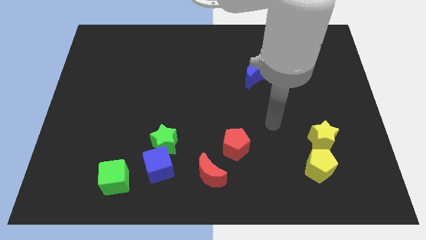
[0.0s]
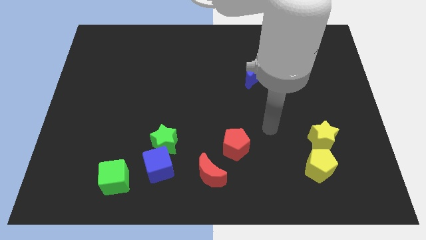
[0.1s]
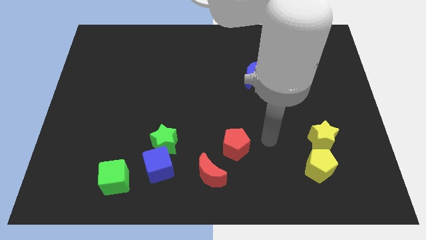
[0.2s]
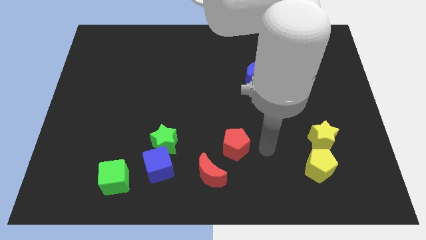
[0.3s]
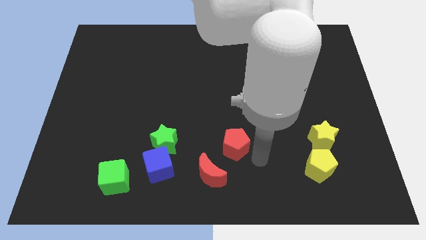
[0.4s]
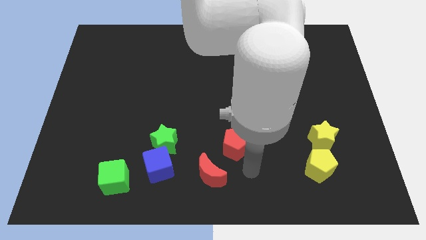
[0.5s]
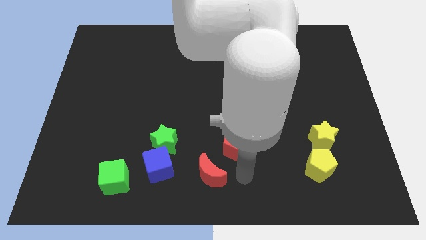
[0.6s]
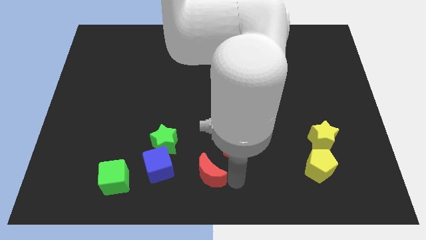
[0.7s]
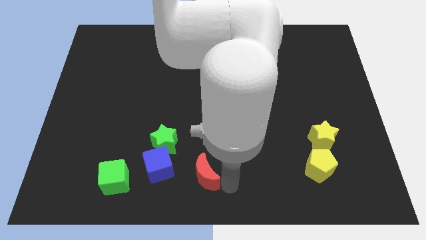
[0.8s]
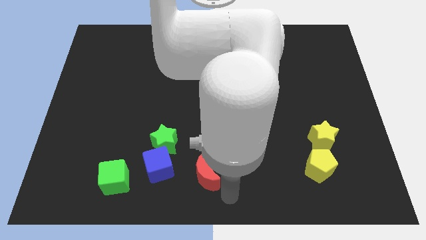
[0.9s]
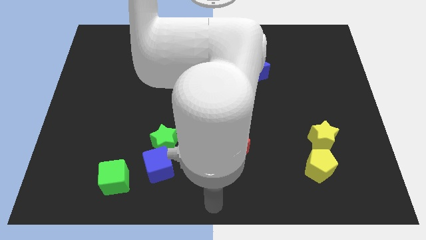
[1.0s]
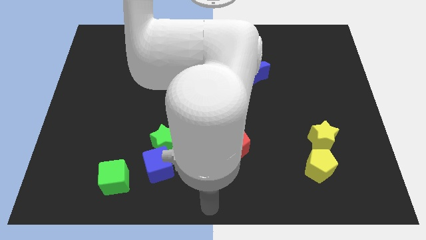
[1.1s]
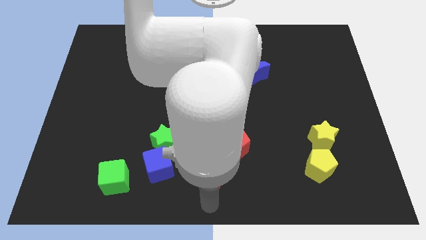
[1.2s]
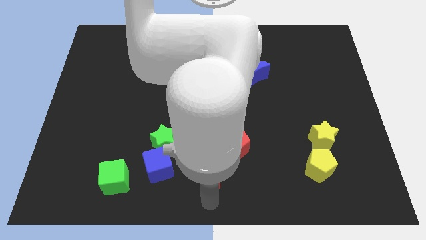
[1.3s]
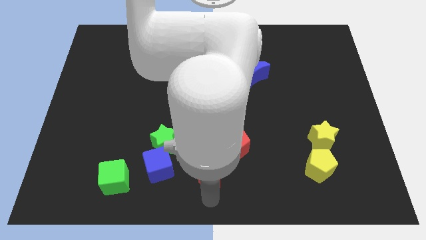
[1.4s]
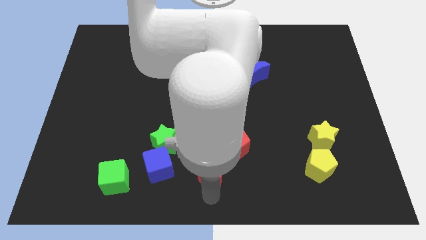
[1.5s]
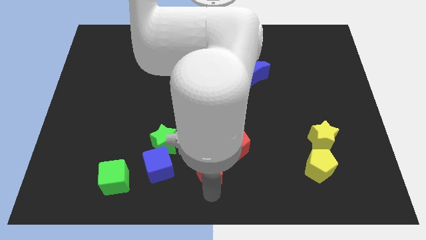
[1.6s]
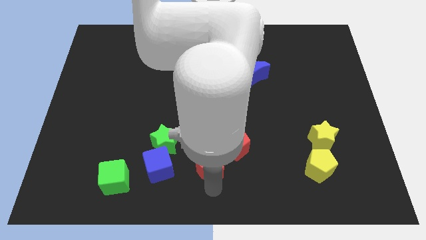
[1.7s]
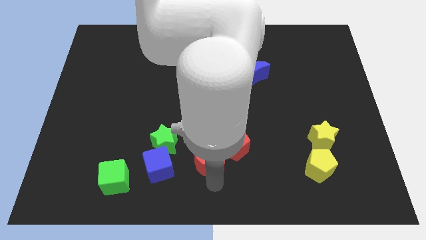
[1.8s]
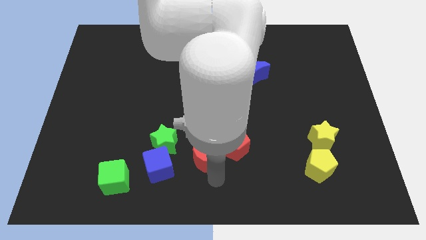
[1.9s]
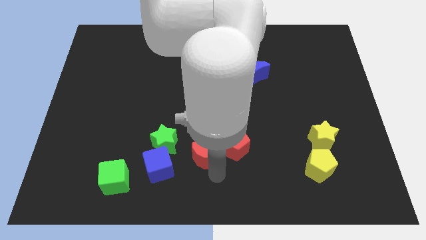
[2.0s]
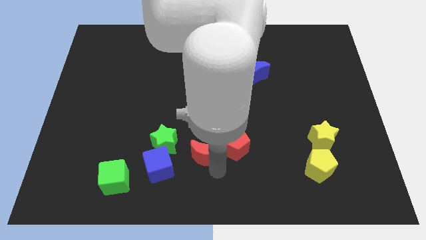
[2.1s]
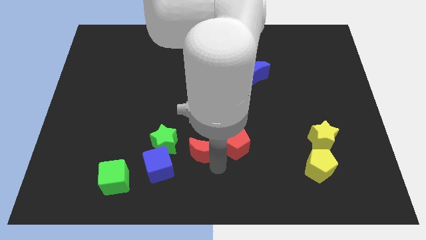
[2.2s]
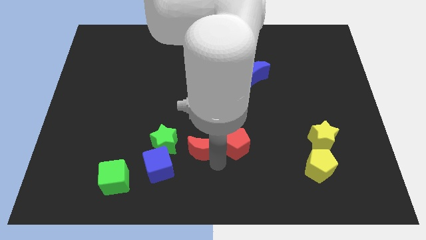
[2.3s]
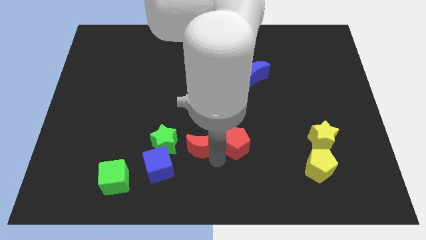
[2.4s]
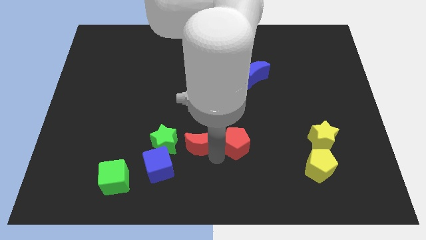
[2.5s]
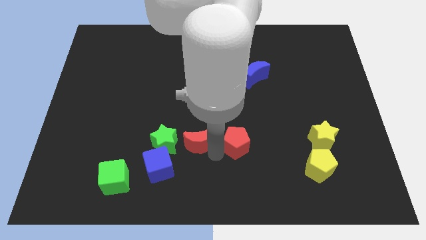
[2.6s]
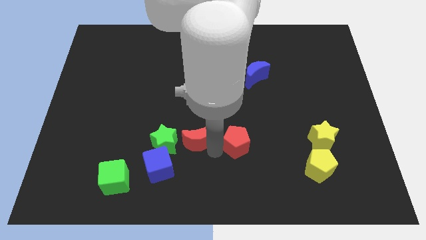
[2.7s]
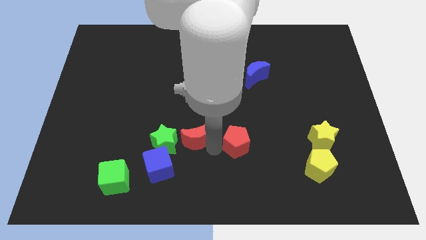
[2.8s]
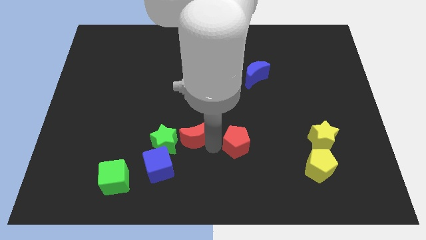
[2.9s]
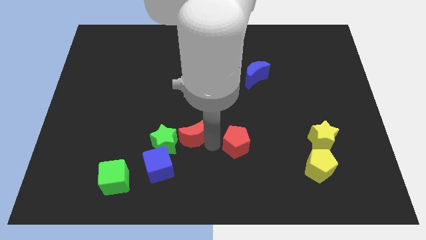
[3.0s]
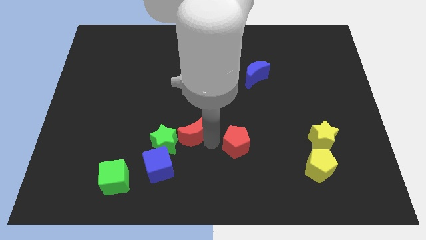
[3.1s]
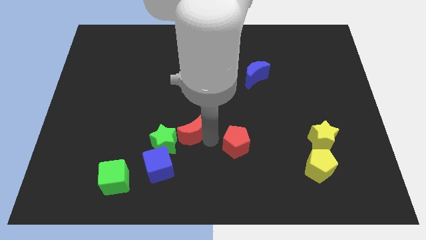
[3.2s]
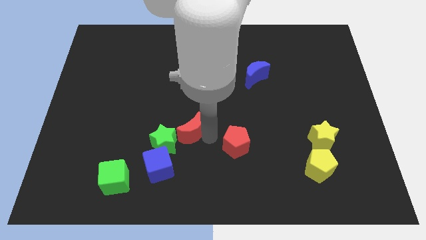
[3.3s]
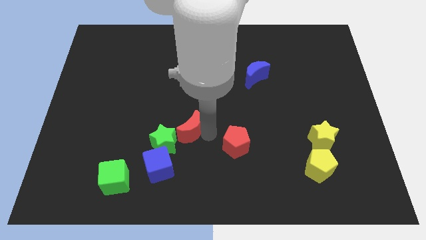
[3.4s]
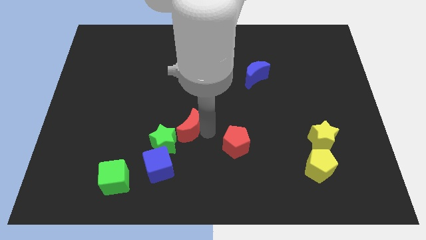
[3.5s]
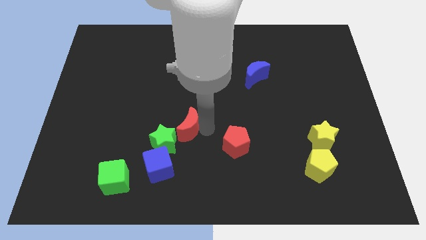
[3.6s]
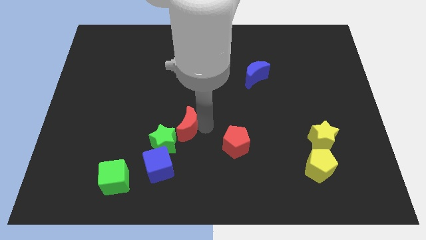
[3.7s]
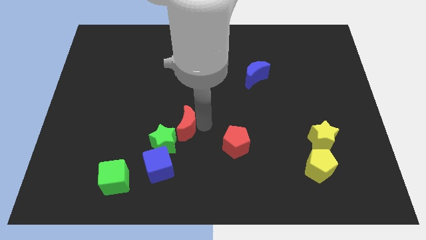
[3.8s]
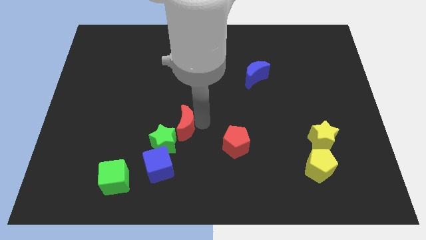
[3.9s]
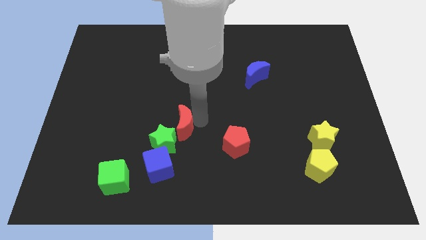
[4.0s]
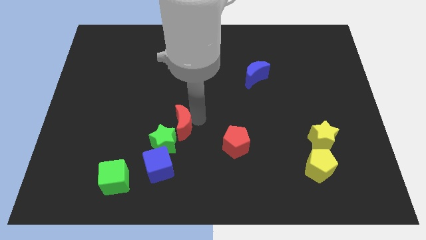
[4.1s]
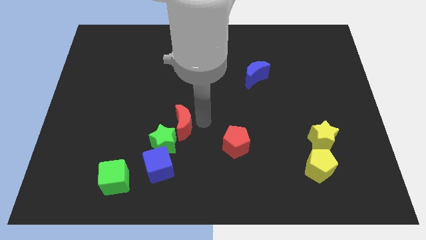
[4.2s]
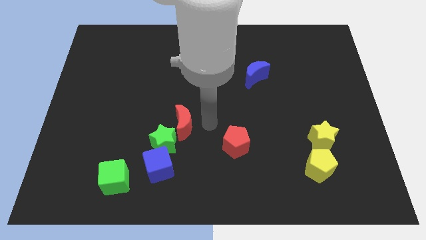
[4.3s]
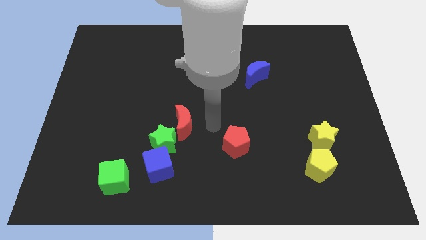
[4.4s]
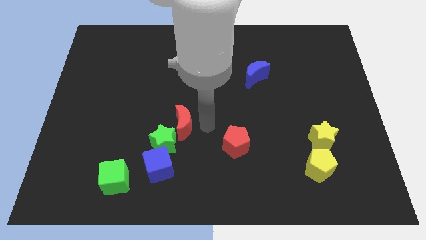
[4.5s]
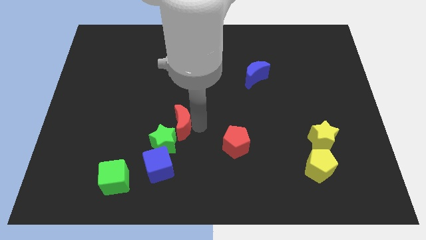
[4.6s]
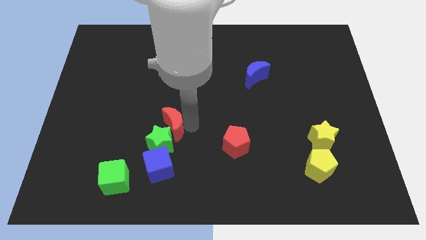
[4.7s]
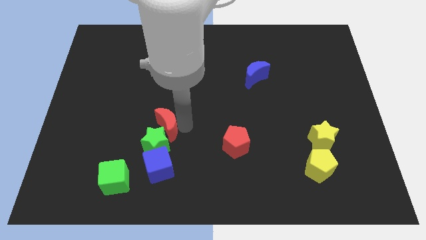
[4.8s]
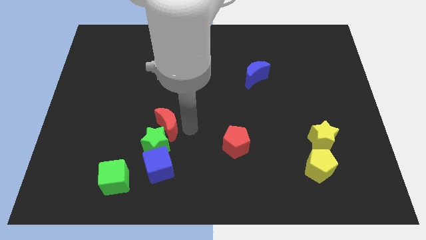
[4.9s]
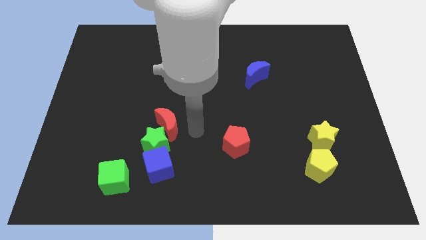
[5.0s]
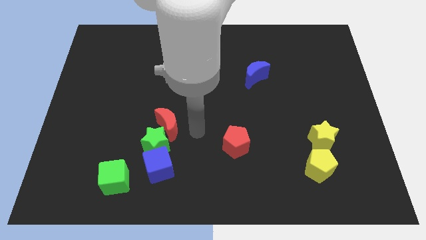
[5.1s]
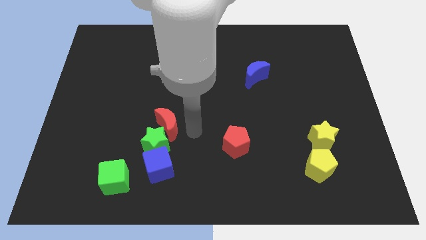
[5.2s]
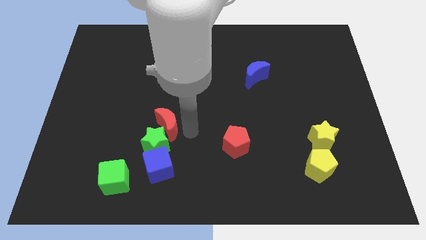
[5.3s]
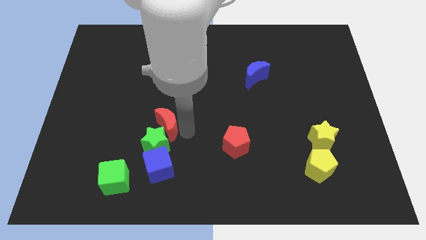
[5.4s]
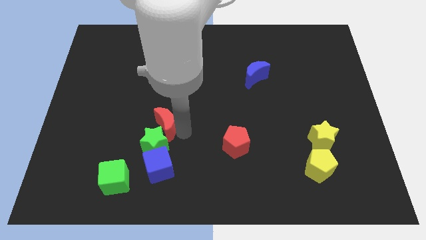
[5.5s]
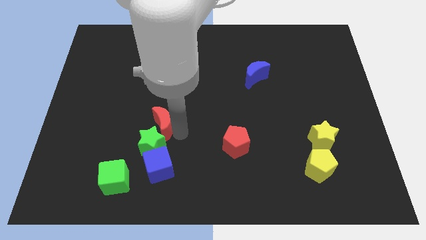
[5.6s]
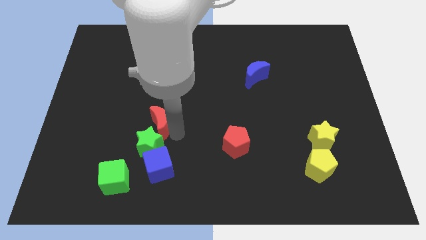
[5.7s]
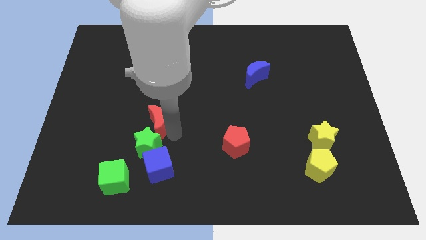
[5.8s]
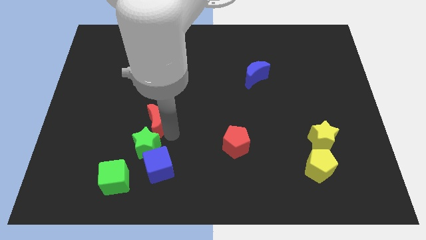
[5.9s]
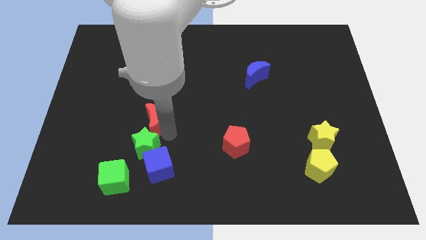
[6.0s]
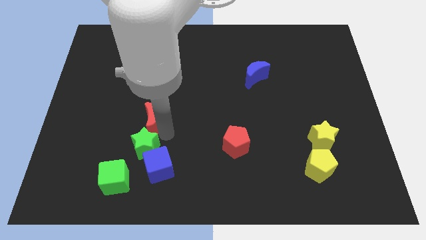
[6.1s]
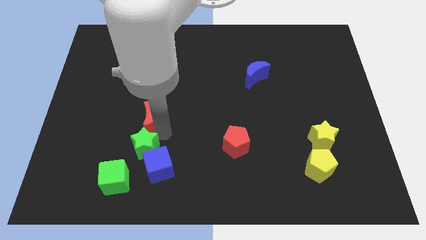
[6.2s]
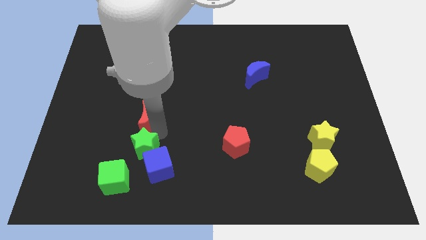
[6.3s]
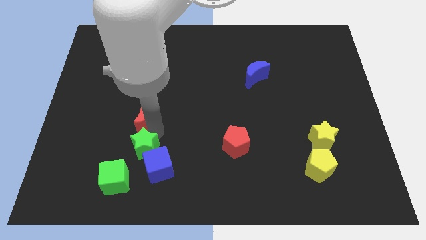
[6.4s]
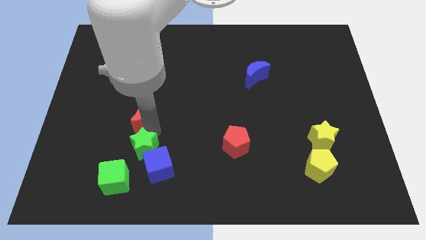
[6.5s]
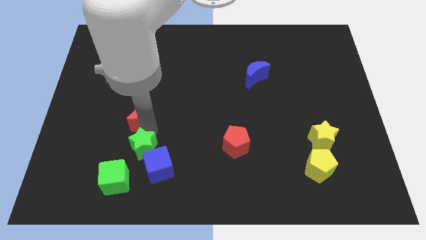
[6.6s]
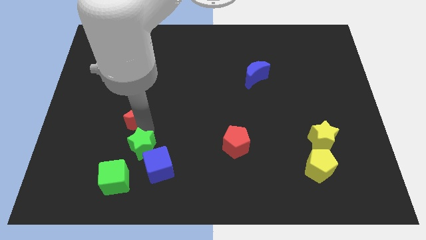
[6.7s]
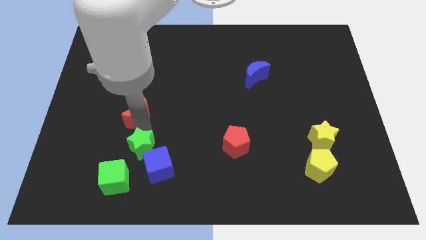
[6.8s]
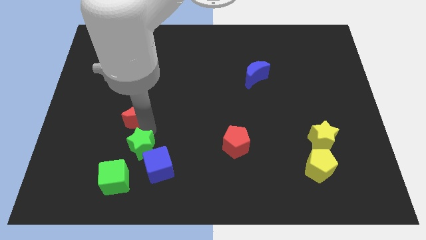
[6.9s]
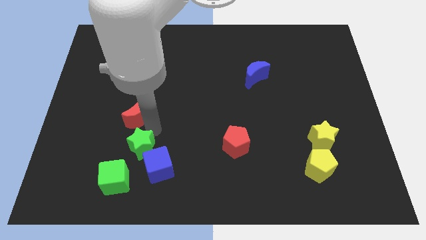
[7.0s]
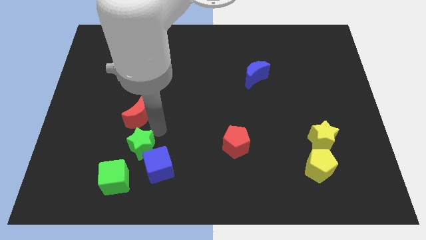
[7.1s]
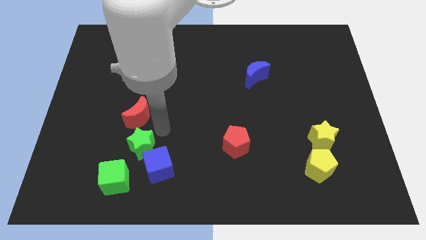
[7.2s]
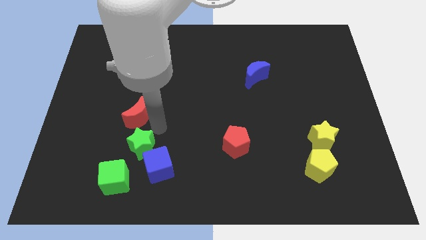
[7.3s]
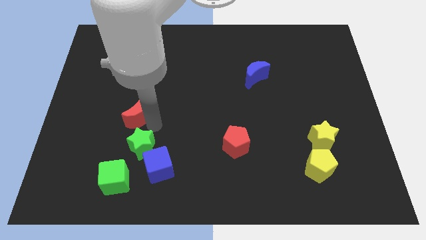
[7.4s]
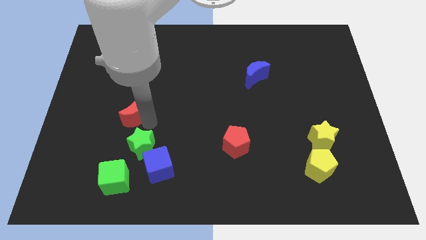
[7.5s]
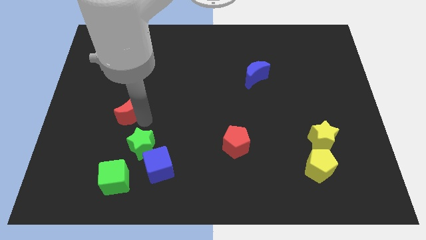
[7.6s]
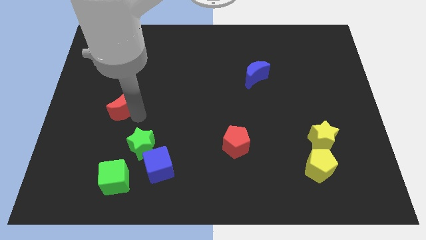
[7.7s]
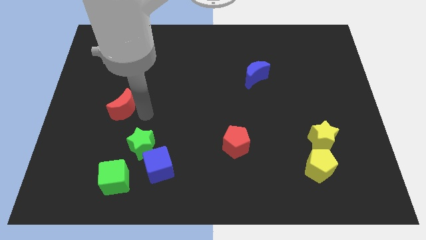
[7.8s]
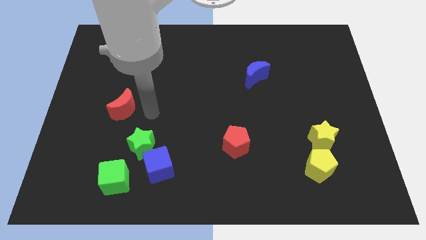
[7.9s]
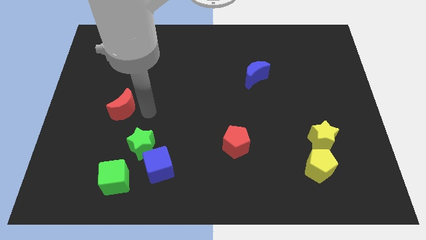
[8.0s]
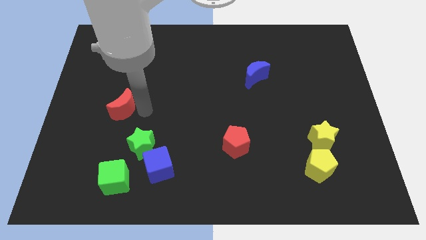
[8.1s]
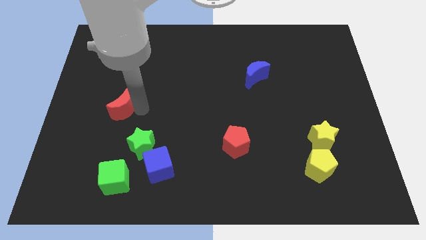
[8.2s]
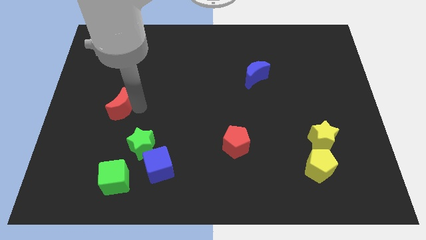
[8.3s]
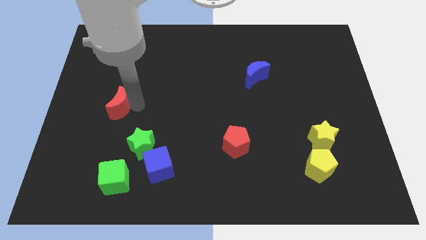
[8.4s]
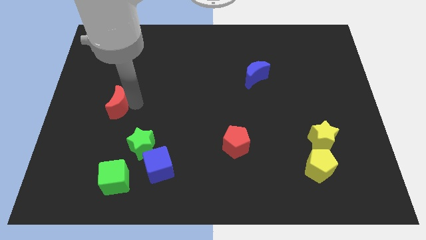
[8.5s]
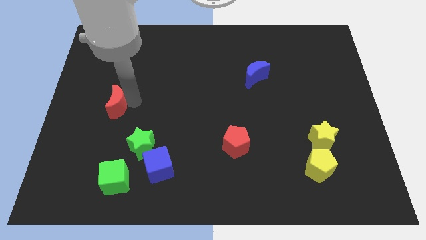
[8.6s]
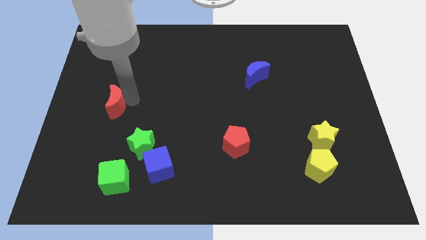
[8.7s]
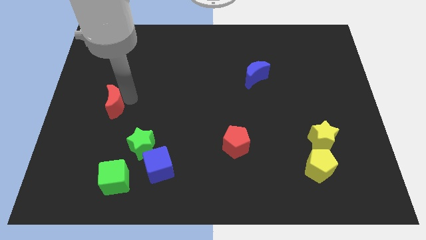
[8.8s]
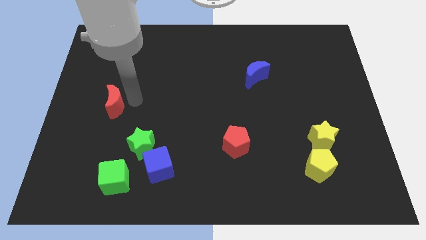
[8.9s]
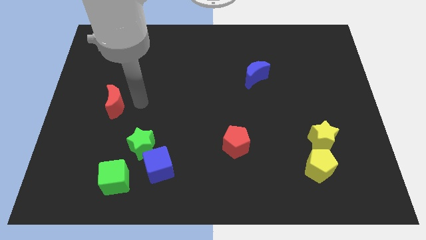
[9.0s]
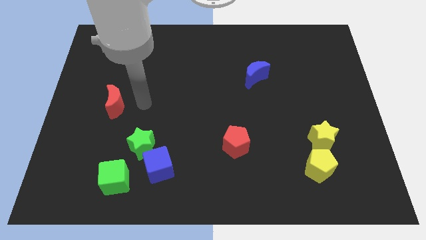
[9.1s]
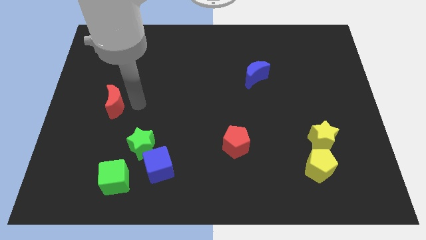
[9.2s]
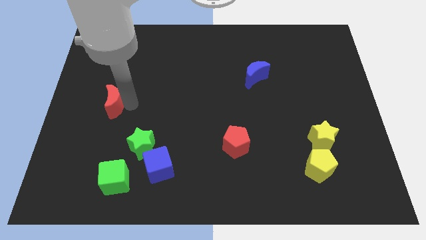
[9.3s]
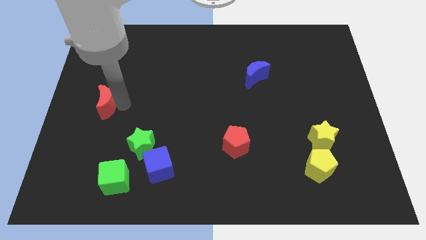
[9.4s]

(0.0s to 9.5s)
move the red moon to the left side
